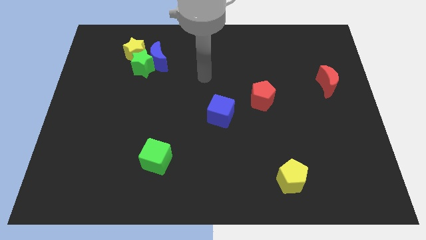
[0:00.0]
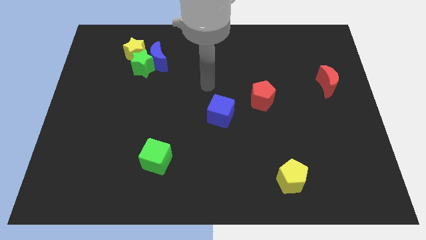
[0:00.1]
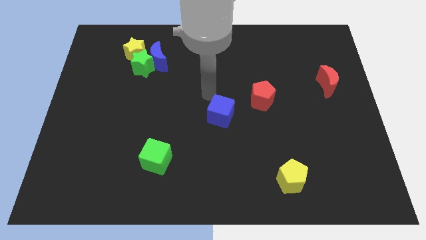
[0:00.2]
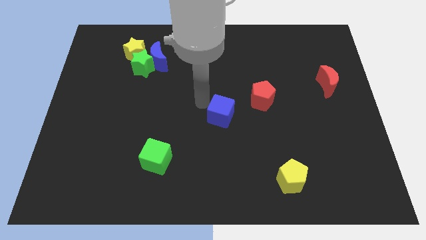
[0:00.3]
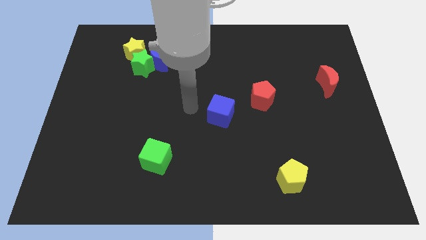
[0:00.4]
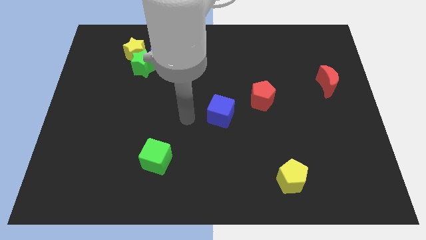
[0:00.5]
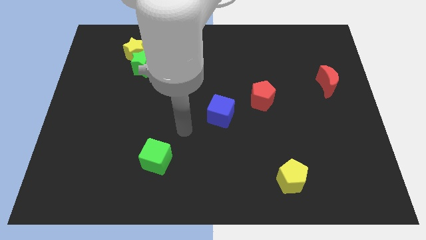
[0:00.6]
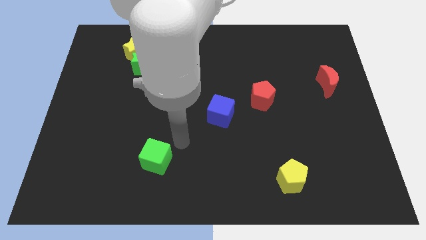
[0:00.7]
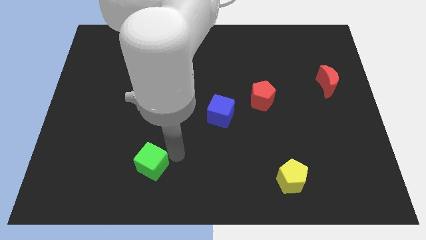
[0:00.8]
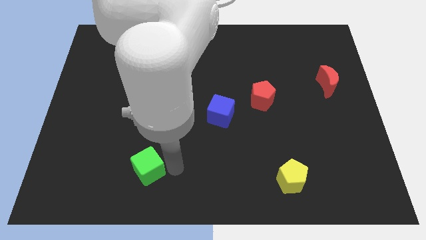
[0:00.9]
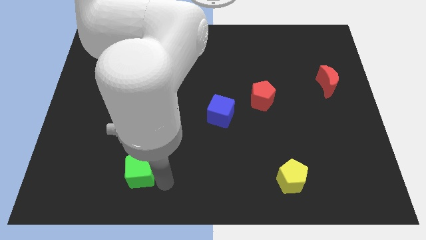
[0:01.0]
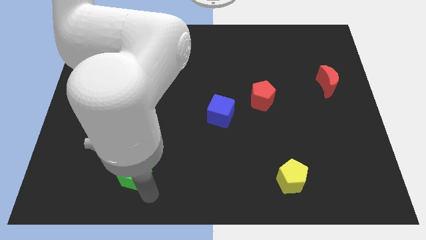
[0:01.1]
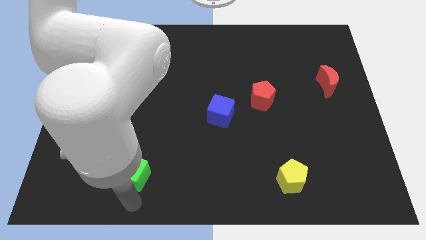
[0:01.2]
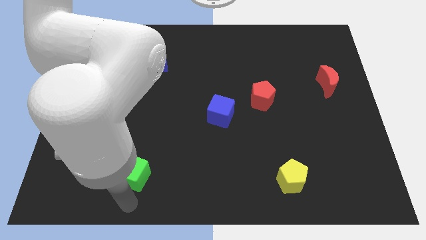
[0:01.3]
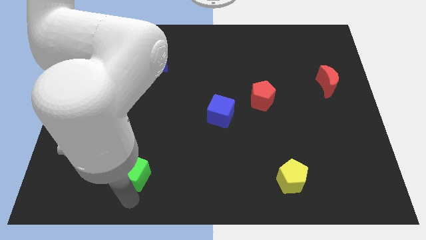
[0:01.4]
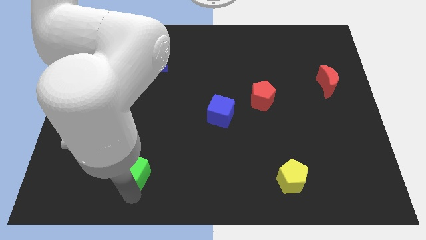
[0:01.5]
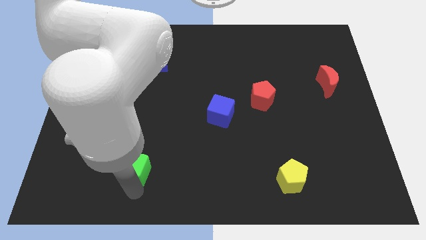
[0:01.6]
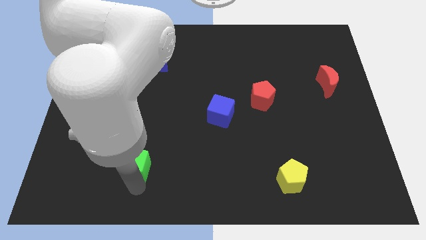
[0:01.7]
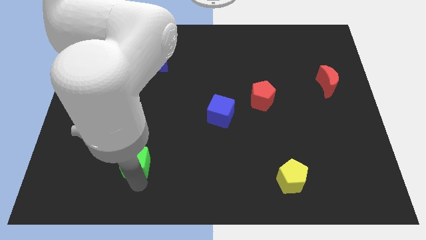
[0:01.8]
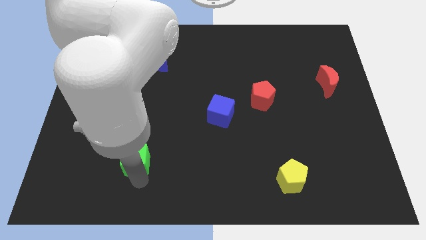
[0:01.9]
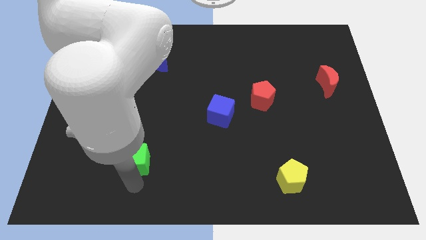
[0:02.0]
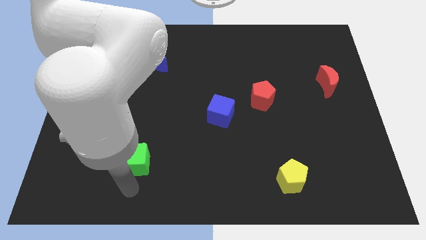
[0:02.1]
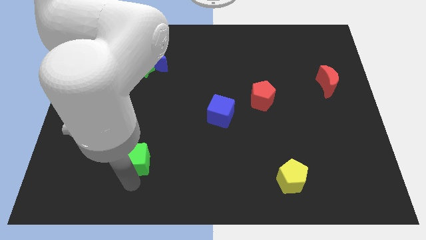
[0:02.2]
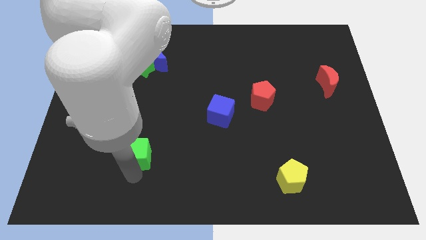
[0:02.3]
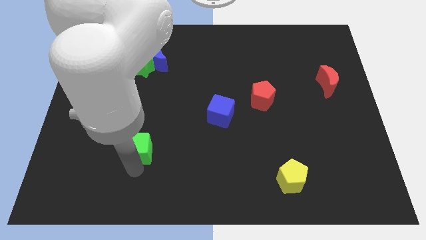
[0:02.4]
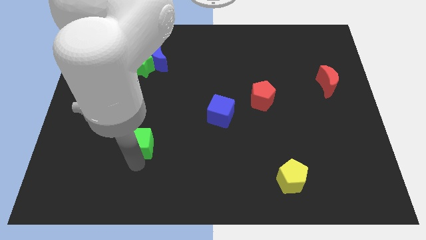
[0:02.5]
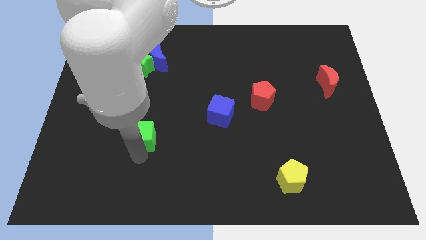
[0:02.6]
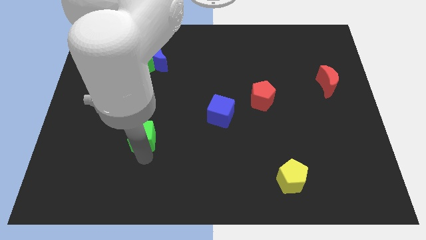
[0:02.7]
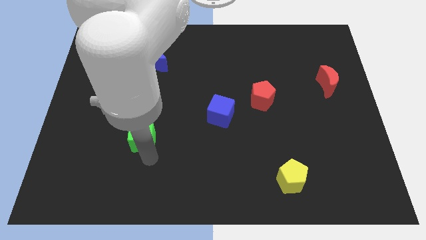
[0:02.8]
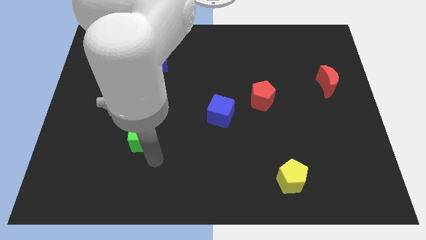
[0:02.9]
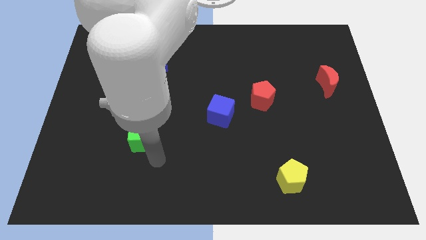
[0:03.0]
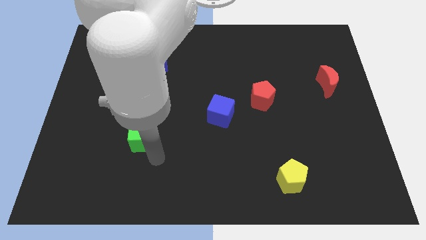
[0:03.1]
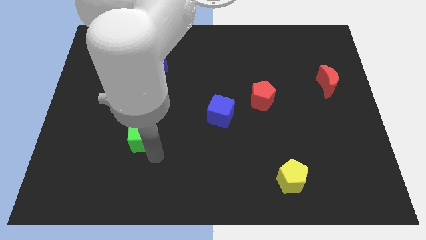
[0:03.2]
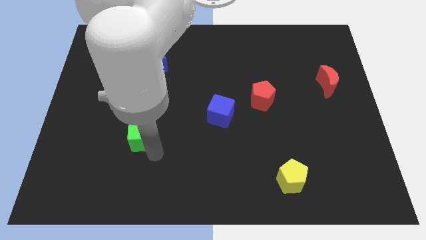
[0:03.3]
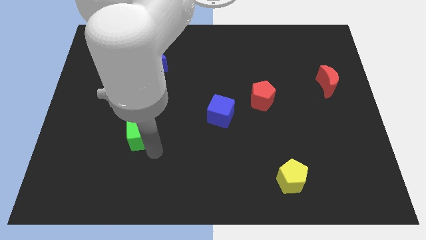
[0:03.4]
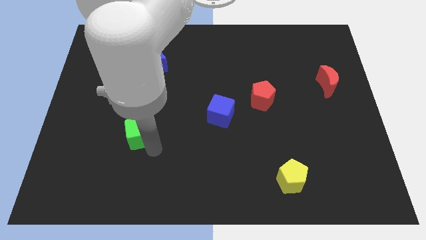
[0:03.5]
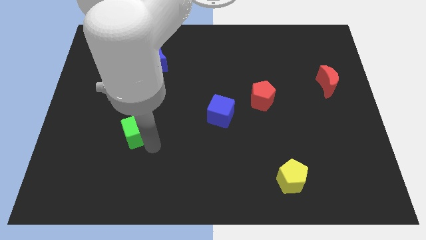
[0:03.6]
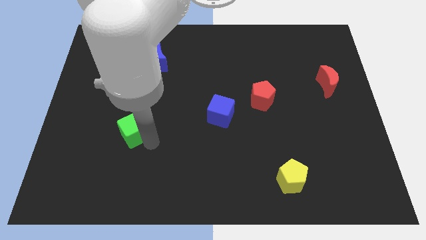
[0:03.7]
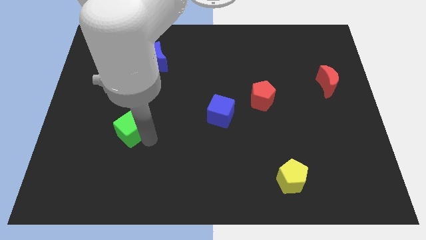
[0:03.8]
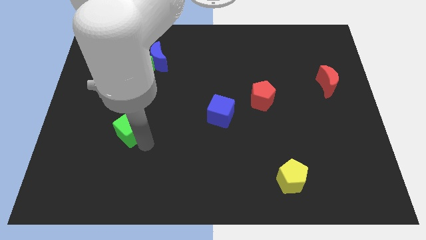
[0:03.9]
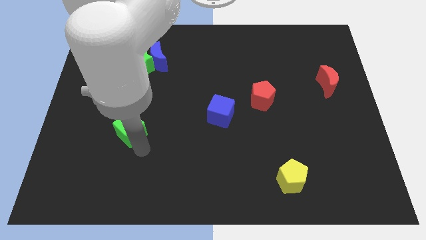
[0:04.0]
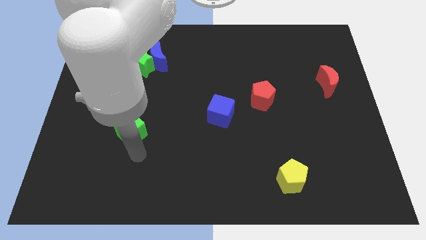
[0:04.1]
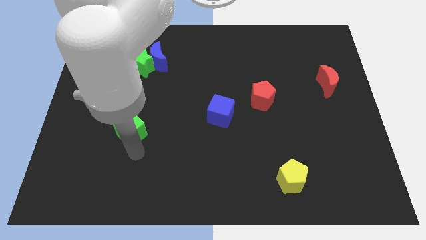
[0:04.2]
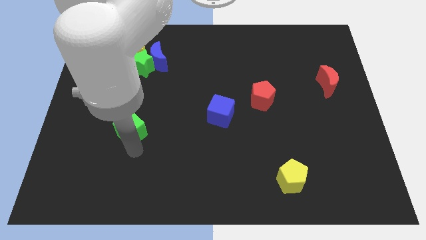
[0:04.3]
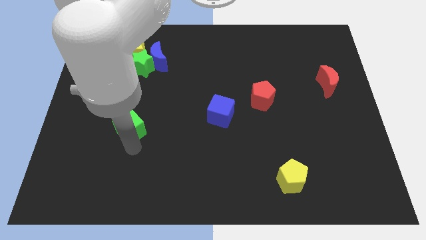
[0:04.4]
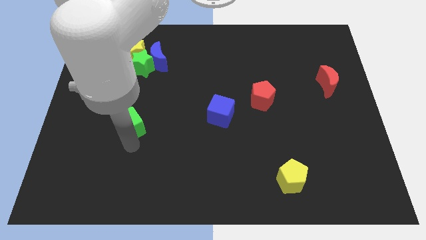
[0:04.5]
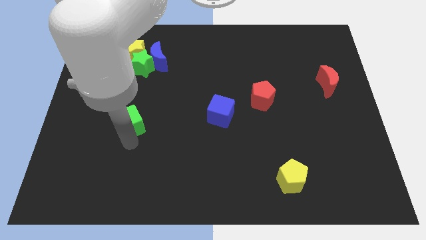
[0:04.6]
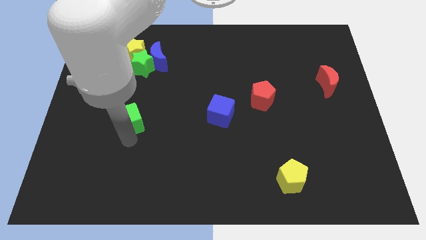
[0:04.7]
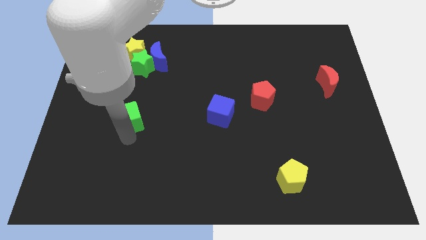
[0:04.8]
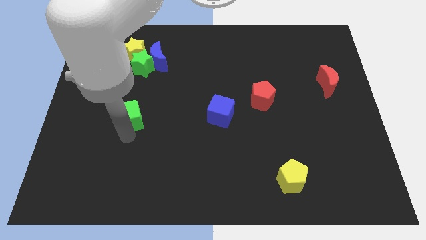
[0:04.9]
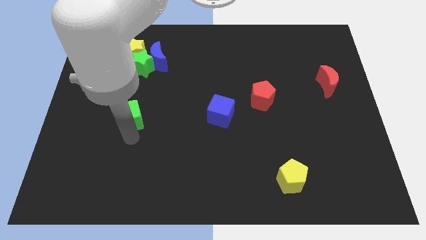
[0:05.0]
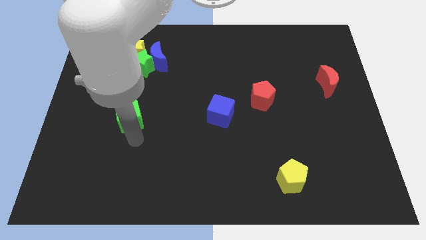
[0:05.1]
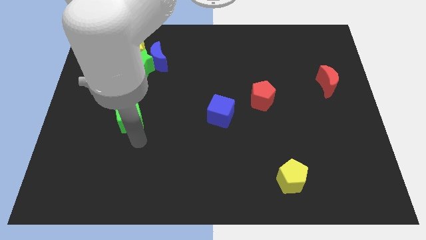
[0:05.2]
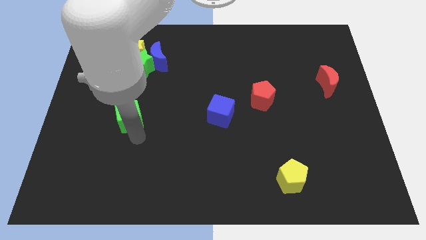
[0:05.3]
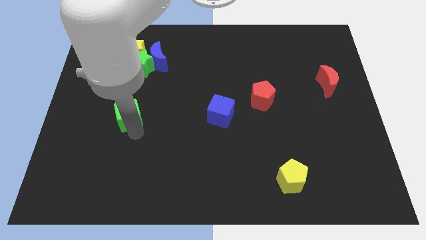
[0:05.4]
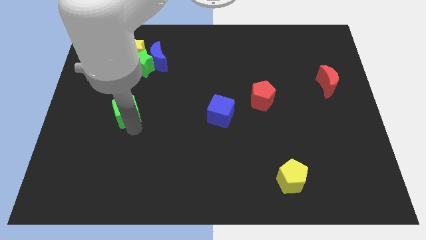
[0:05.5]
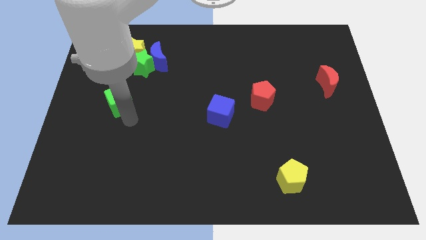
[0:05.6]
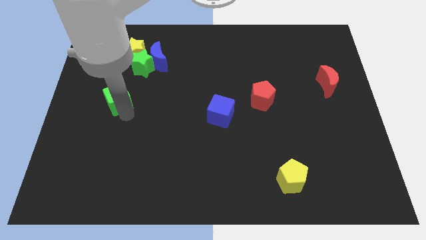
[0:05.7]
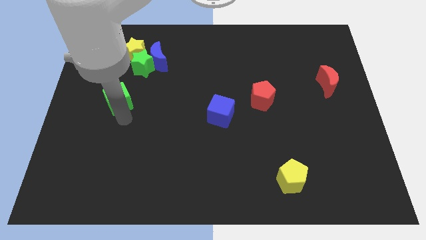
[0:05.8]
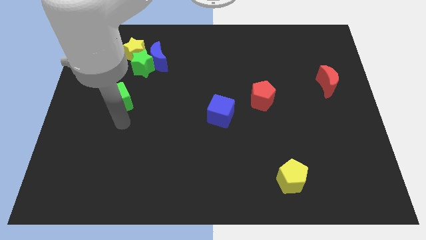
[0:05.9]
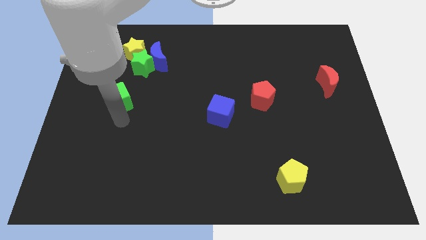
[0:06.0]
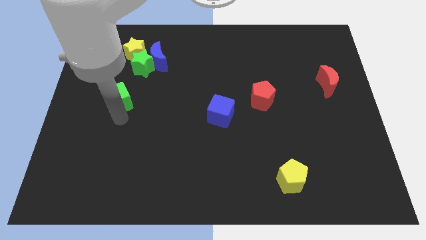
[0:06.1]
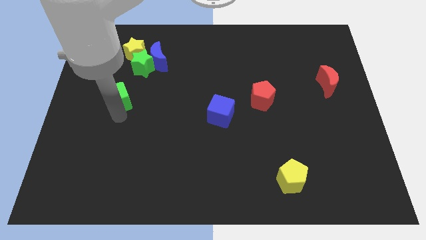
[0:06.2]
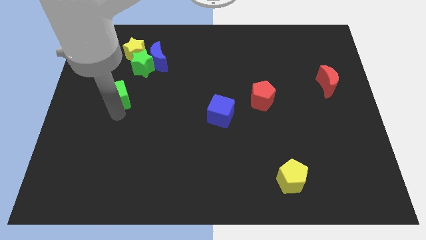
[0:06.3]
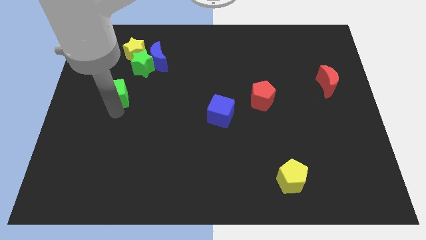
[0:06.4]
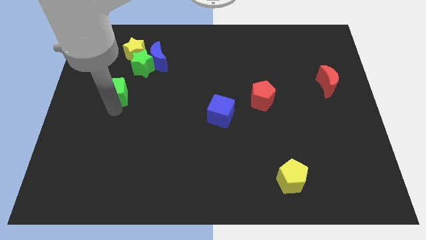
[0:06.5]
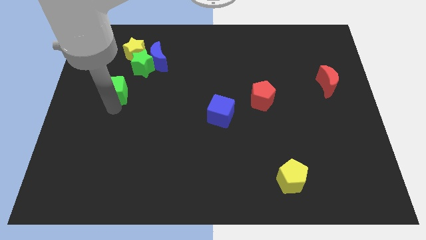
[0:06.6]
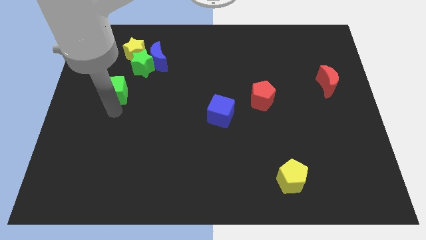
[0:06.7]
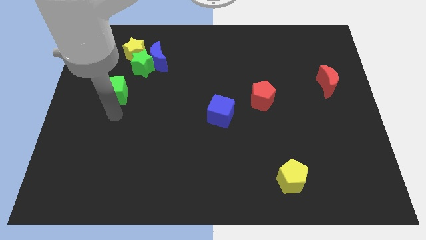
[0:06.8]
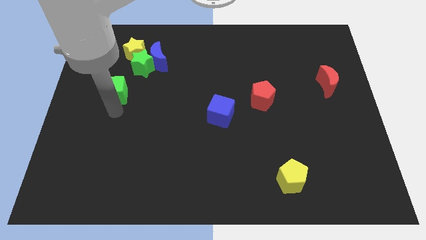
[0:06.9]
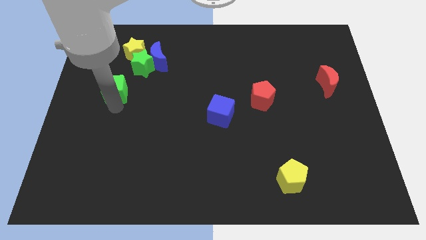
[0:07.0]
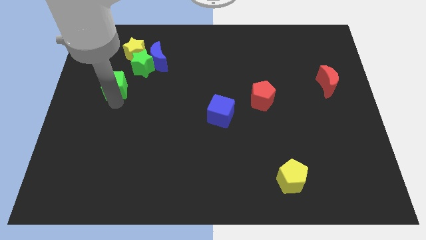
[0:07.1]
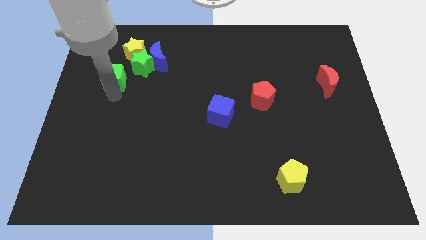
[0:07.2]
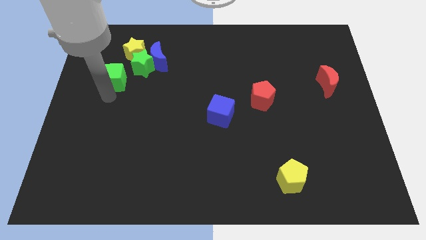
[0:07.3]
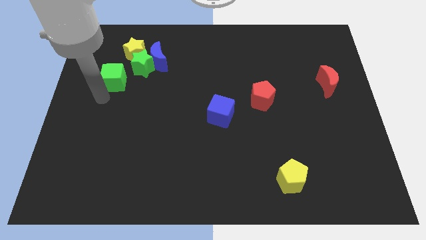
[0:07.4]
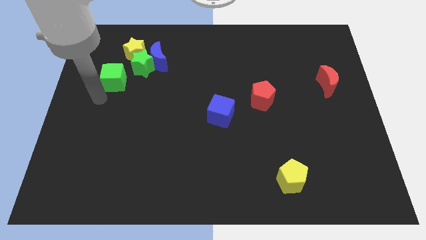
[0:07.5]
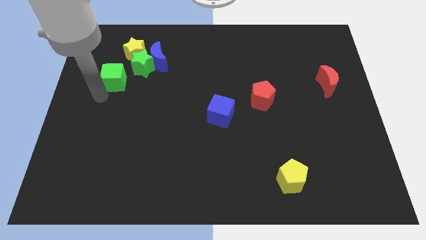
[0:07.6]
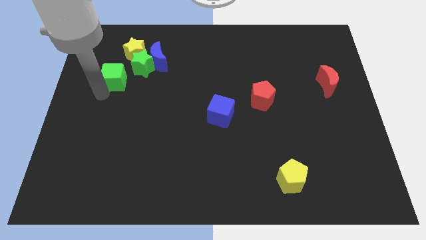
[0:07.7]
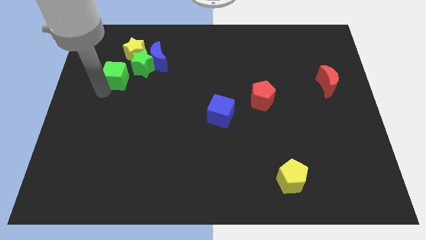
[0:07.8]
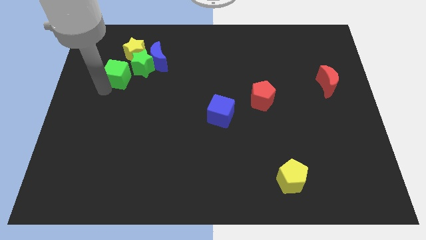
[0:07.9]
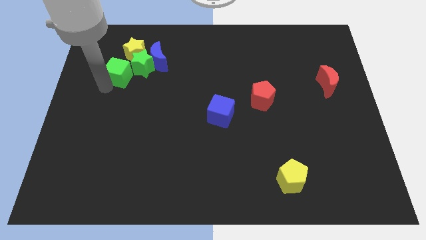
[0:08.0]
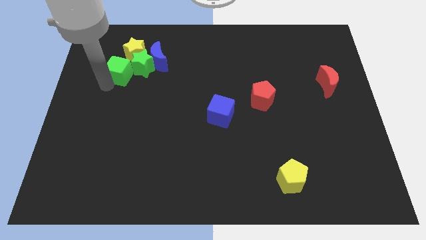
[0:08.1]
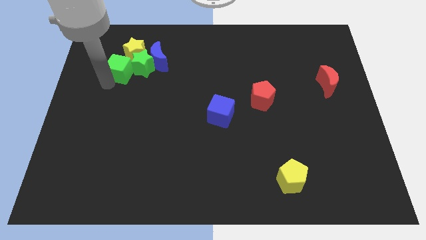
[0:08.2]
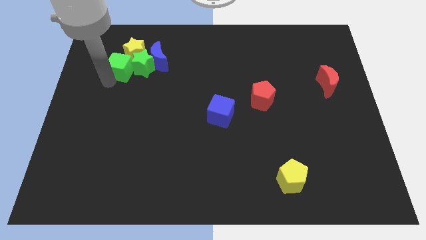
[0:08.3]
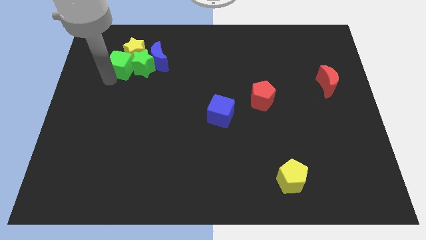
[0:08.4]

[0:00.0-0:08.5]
move the green cube to the yellow star
